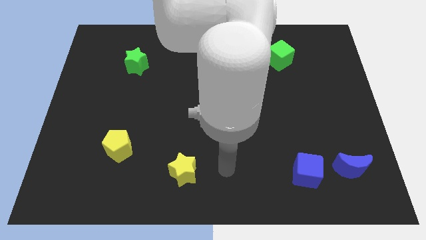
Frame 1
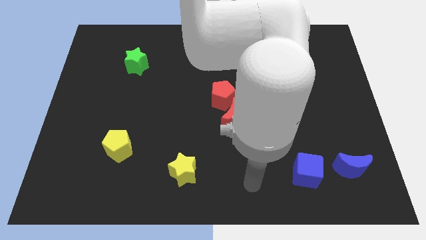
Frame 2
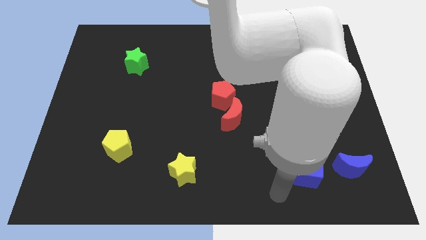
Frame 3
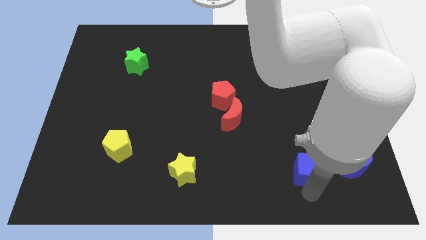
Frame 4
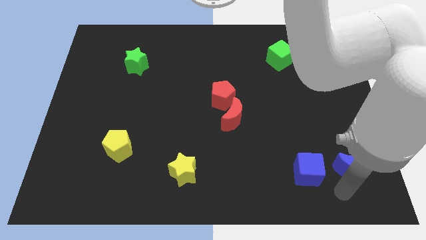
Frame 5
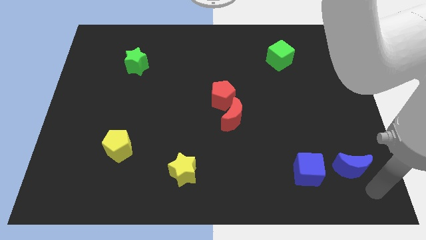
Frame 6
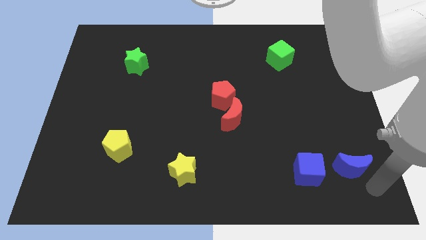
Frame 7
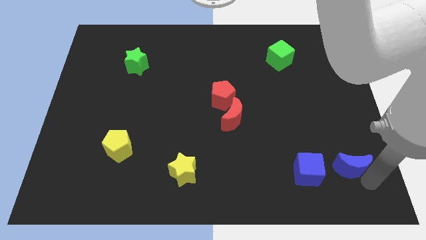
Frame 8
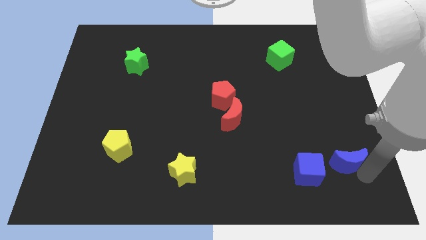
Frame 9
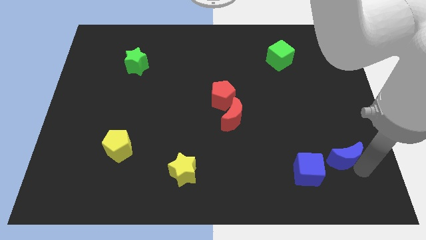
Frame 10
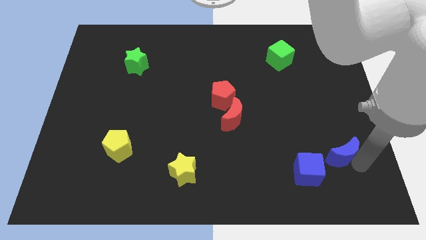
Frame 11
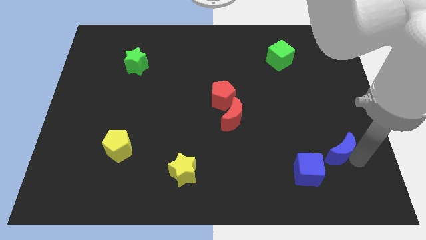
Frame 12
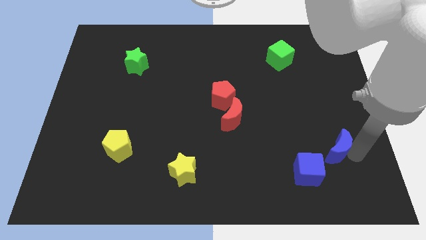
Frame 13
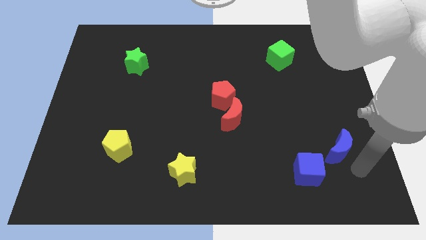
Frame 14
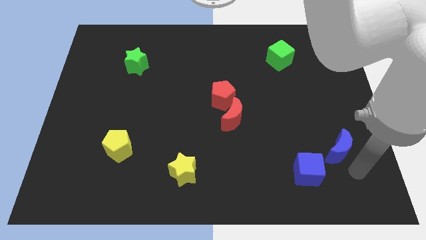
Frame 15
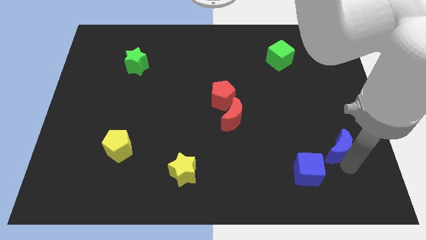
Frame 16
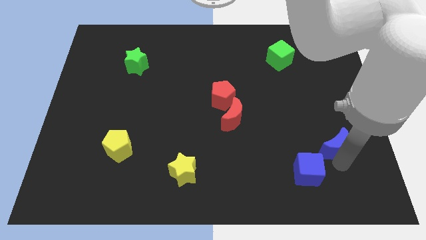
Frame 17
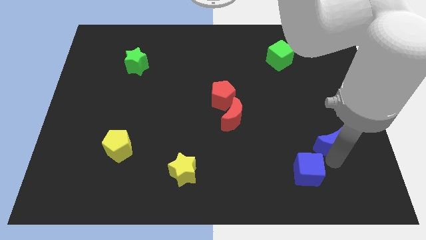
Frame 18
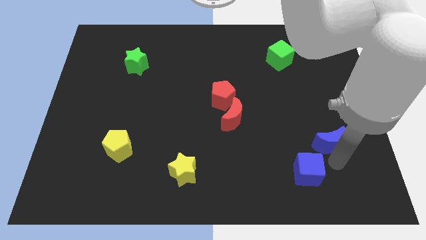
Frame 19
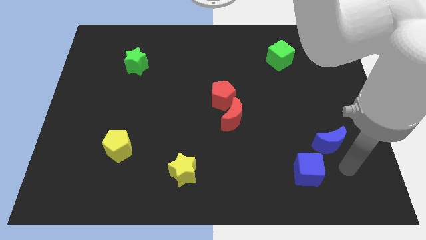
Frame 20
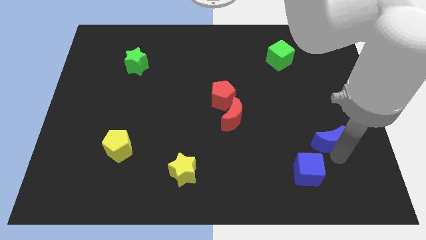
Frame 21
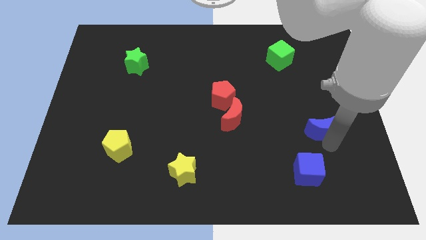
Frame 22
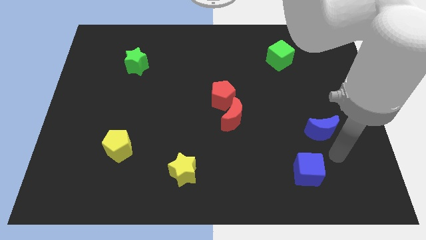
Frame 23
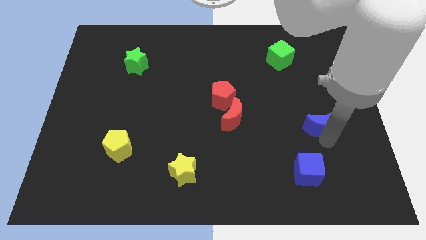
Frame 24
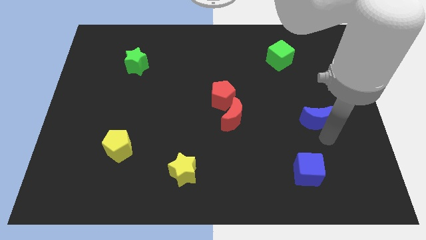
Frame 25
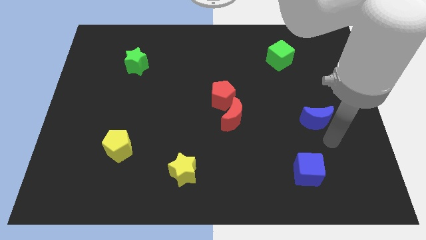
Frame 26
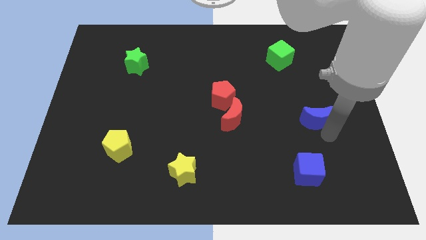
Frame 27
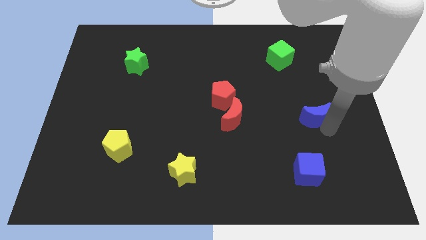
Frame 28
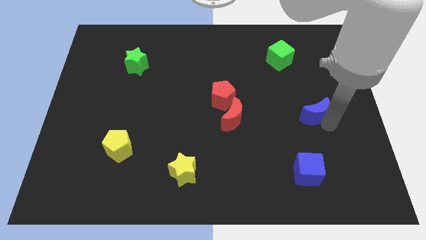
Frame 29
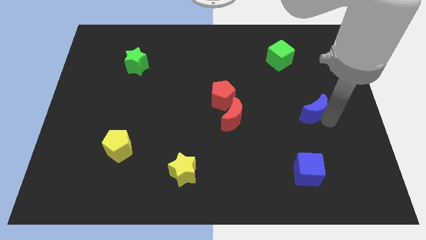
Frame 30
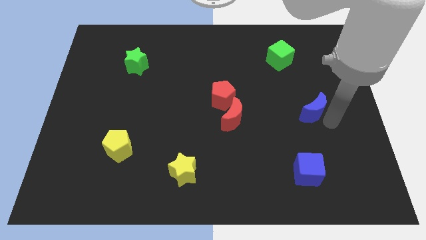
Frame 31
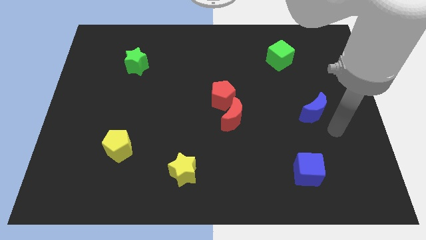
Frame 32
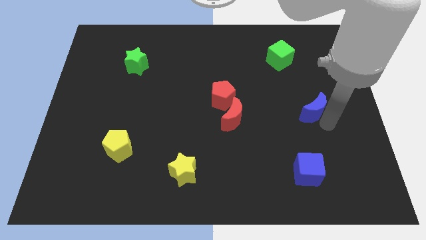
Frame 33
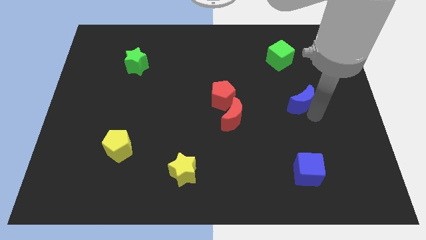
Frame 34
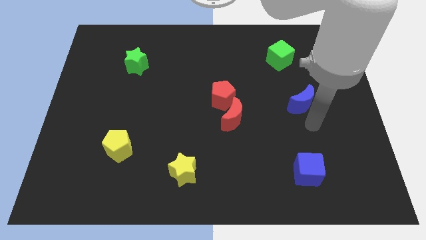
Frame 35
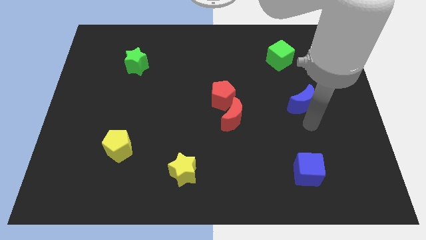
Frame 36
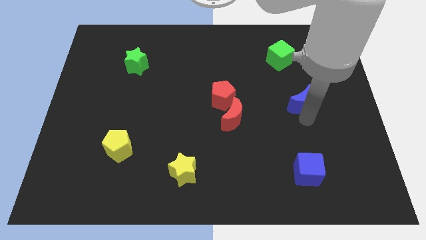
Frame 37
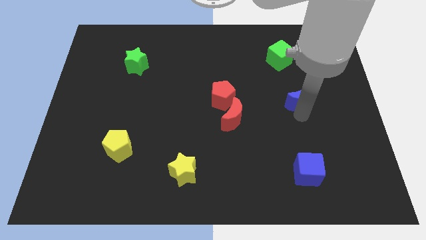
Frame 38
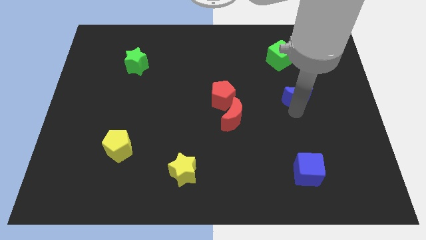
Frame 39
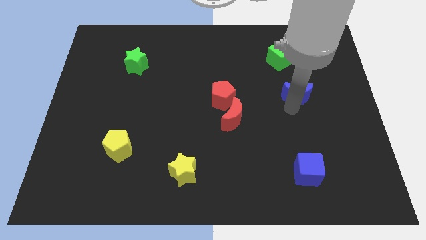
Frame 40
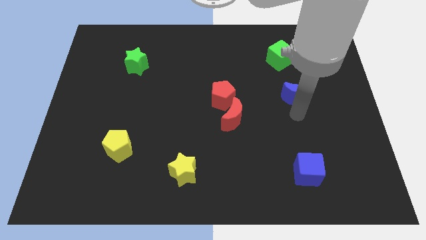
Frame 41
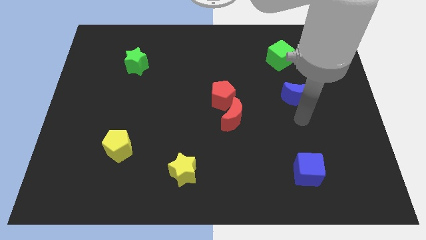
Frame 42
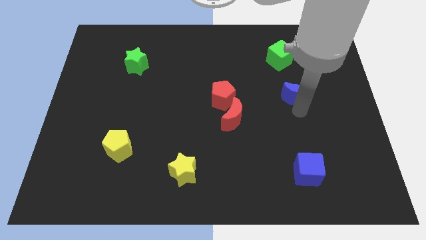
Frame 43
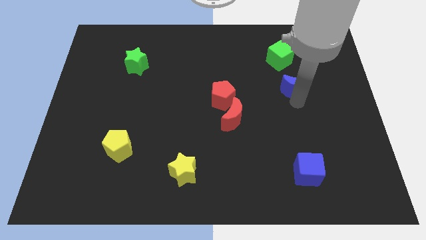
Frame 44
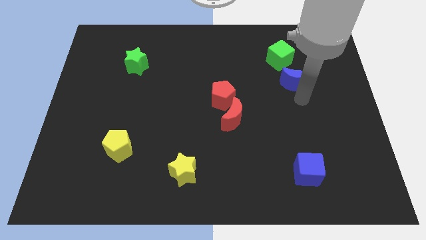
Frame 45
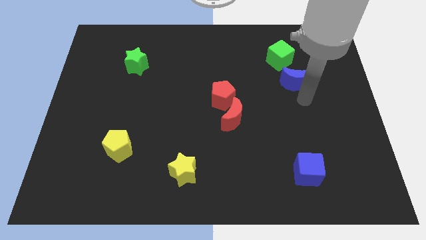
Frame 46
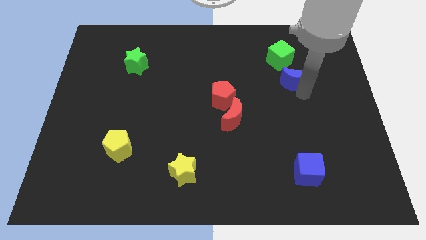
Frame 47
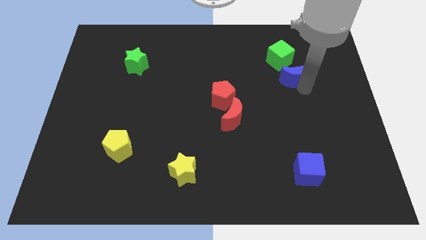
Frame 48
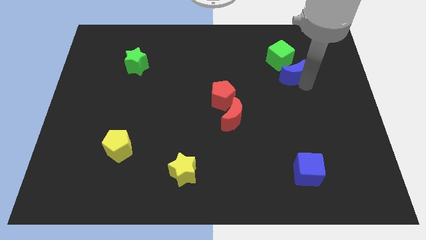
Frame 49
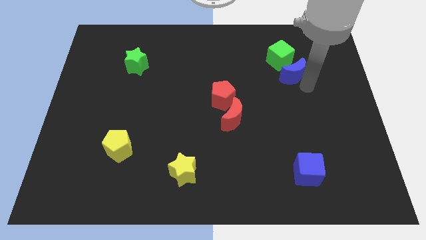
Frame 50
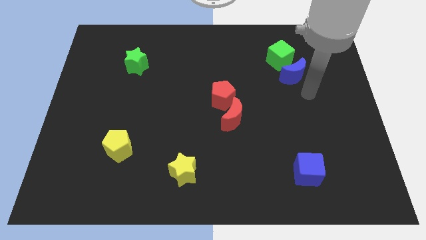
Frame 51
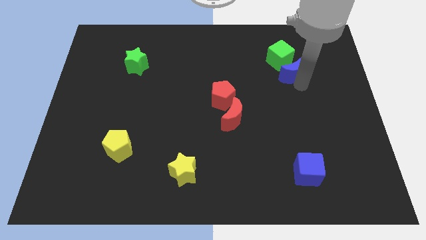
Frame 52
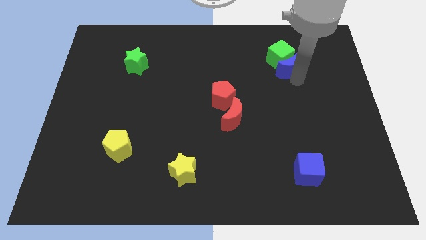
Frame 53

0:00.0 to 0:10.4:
slide the blue moon to the green cube

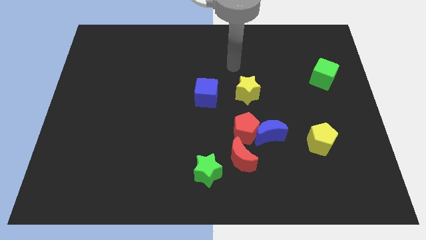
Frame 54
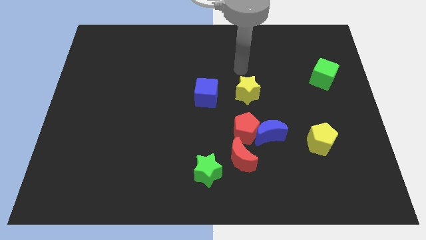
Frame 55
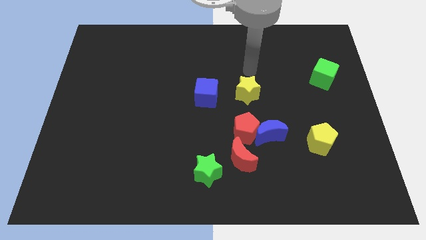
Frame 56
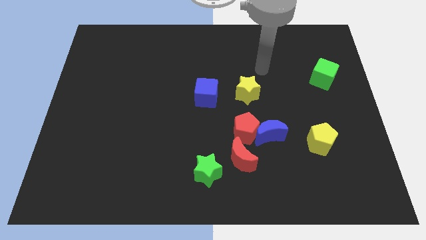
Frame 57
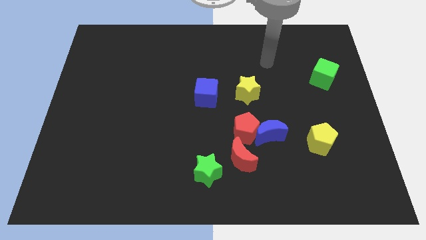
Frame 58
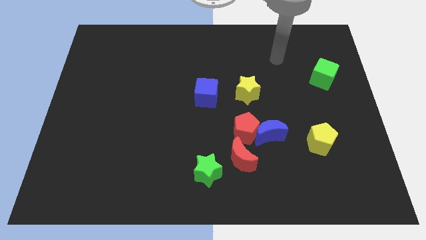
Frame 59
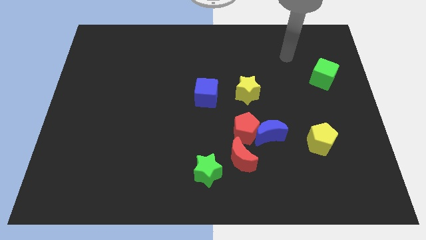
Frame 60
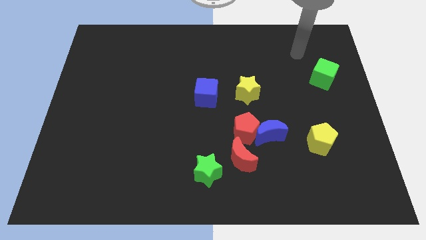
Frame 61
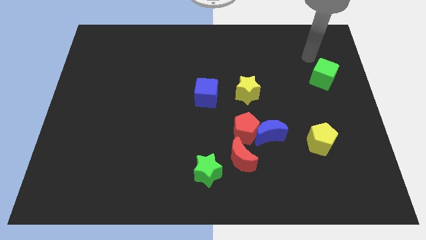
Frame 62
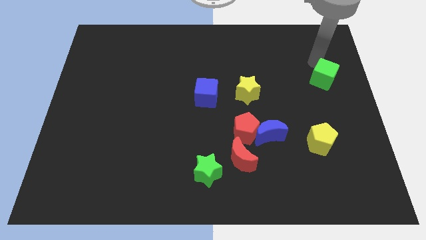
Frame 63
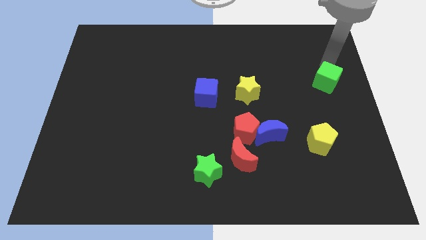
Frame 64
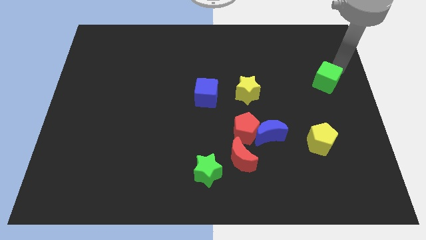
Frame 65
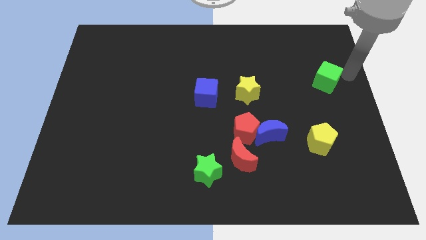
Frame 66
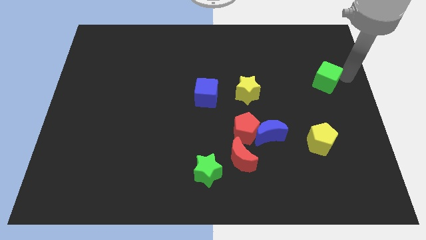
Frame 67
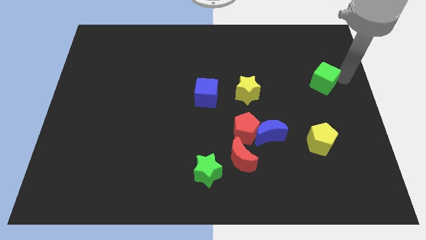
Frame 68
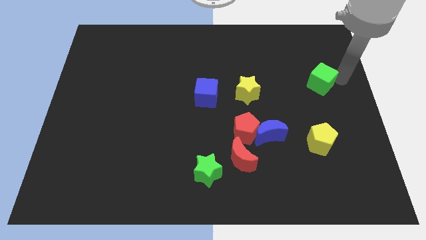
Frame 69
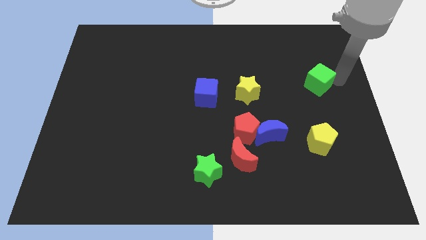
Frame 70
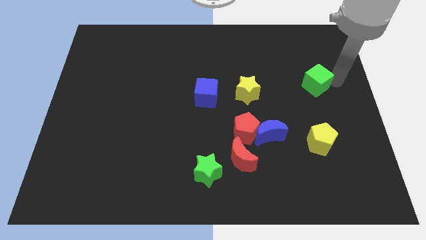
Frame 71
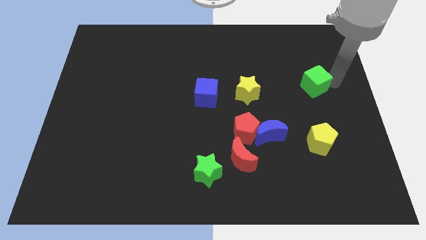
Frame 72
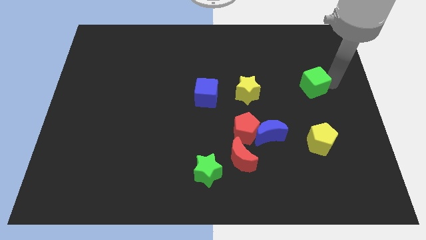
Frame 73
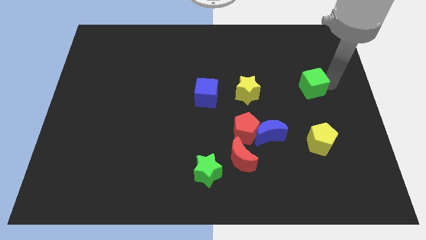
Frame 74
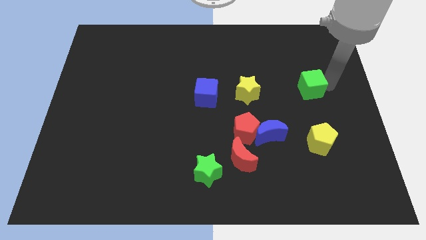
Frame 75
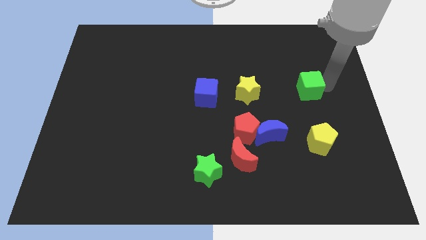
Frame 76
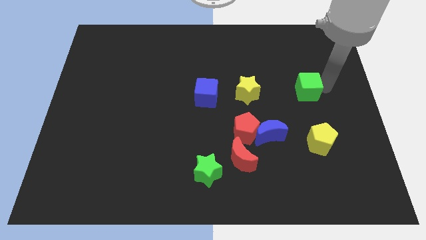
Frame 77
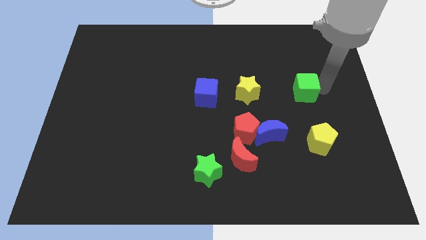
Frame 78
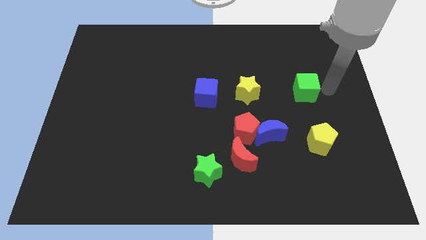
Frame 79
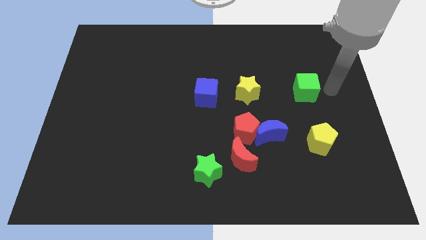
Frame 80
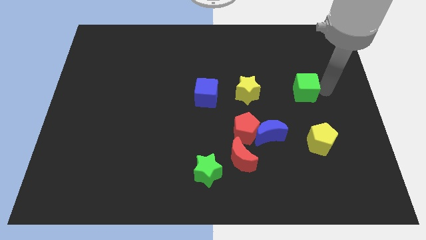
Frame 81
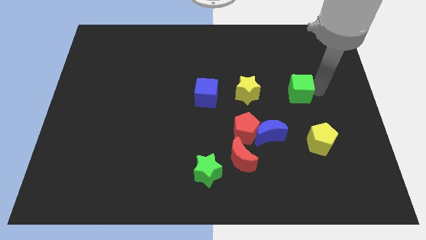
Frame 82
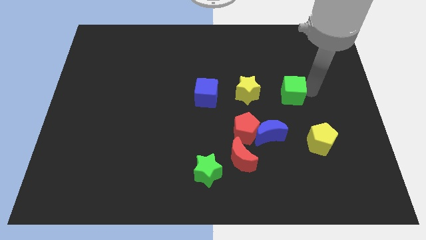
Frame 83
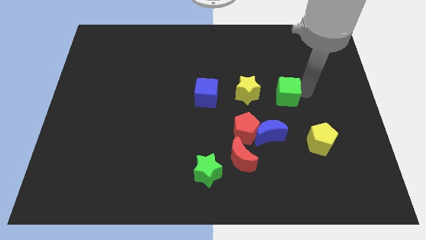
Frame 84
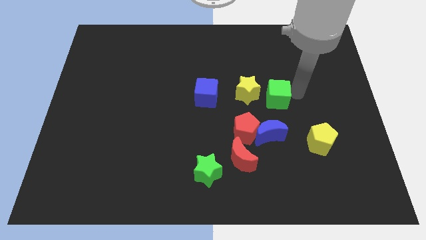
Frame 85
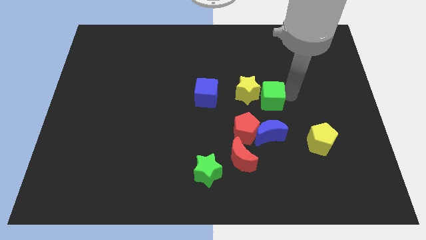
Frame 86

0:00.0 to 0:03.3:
push the green cube to the yellow star
